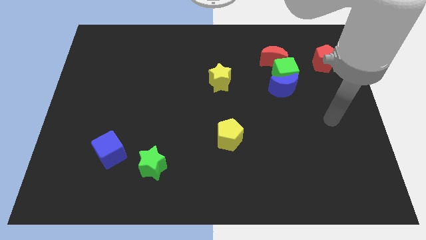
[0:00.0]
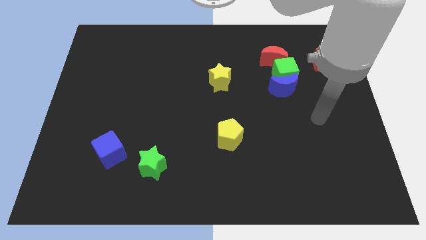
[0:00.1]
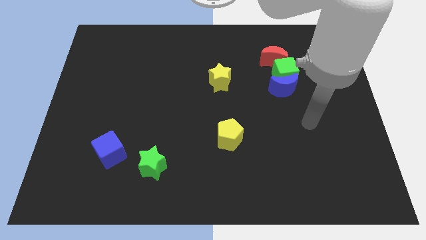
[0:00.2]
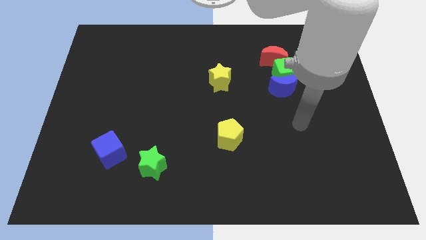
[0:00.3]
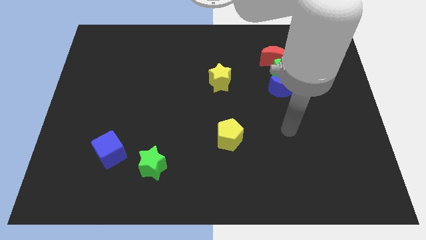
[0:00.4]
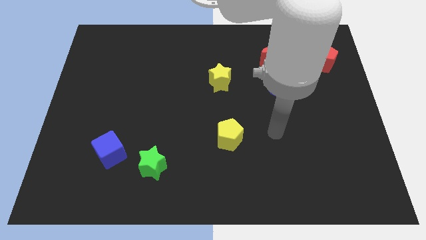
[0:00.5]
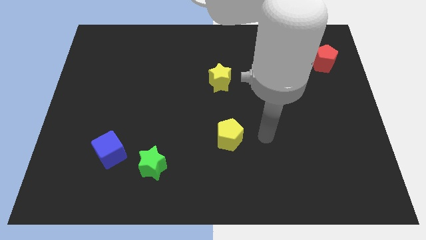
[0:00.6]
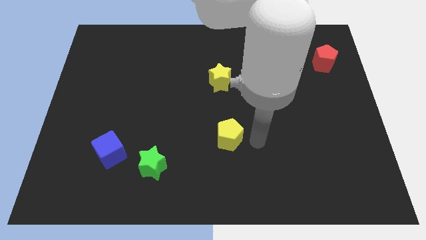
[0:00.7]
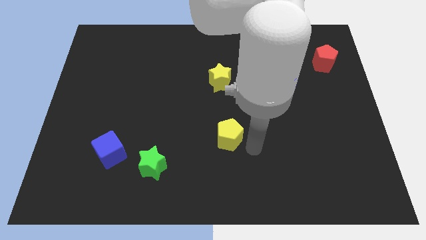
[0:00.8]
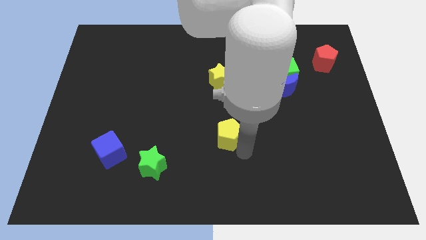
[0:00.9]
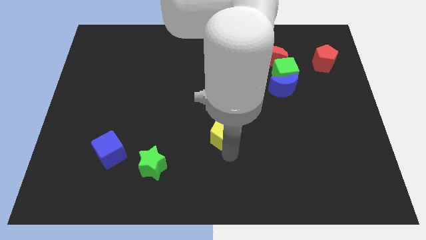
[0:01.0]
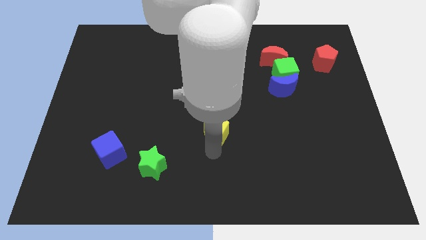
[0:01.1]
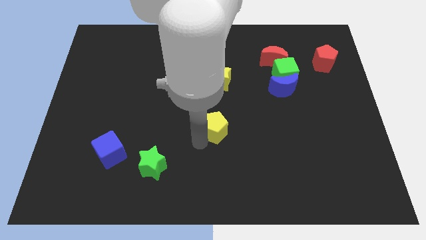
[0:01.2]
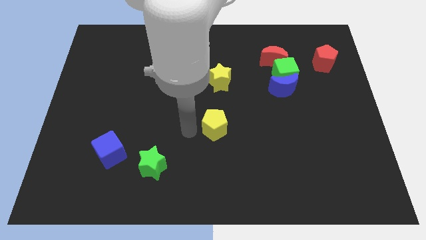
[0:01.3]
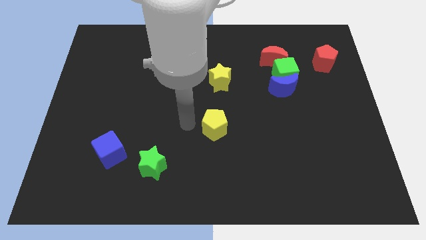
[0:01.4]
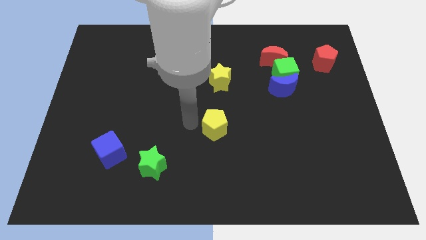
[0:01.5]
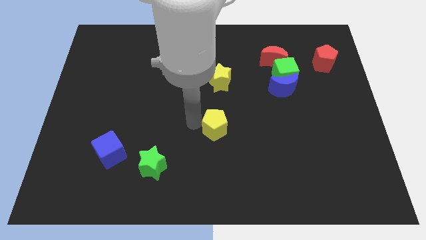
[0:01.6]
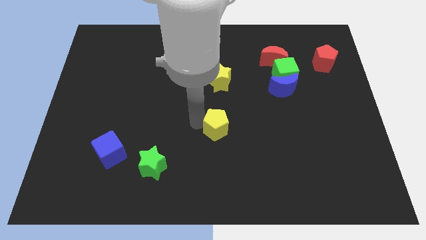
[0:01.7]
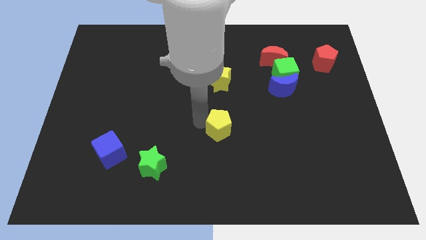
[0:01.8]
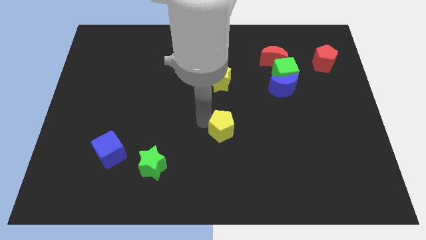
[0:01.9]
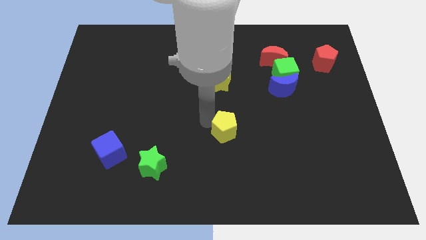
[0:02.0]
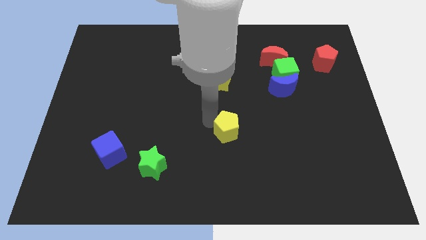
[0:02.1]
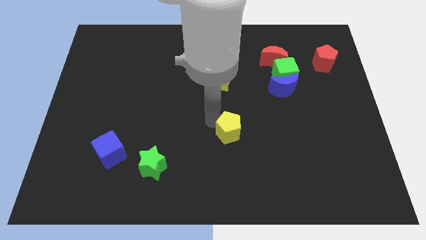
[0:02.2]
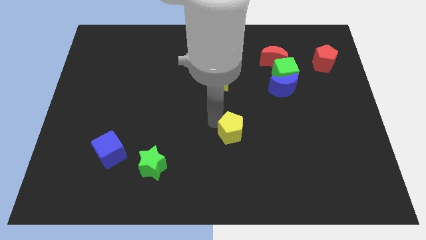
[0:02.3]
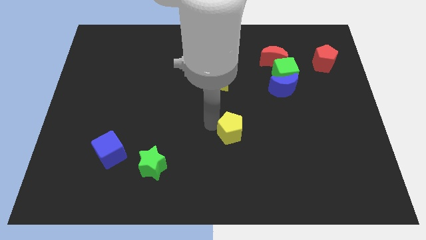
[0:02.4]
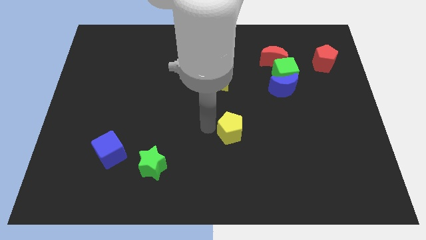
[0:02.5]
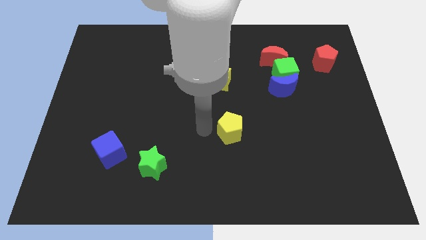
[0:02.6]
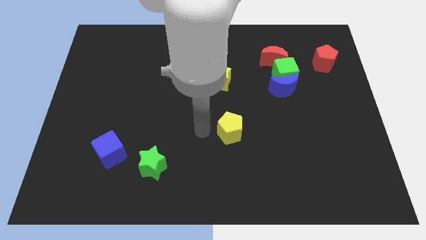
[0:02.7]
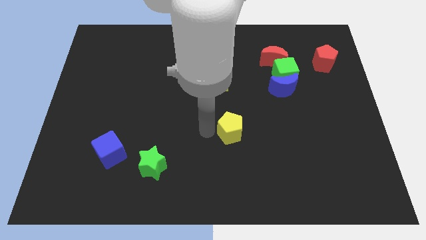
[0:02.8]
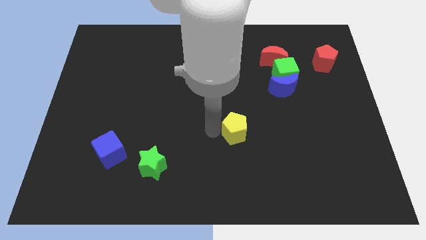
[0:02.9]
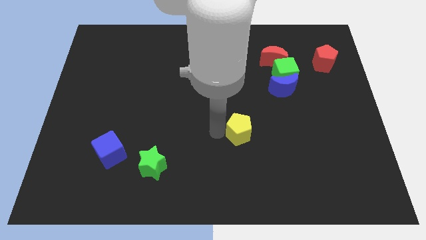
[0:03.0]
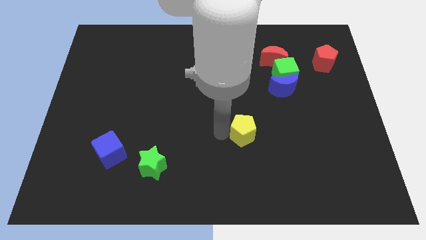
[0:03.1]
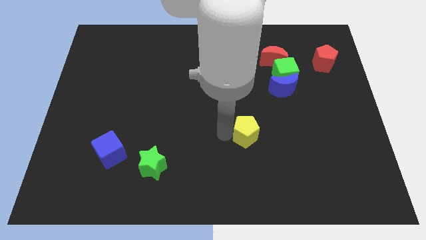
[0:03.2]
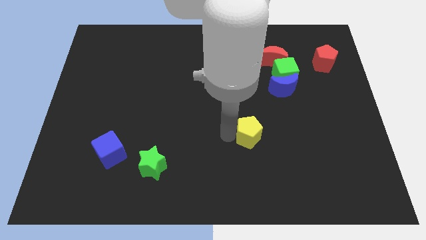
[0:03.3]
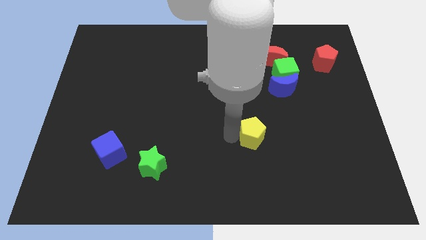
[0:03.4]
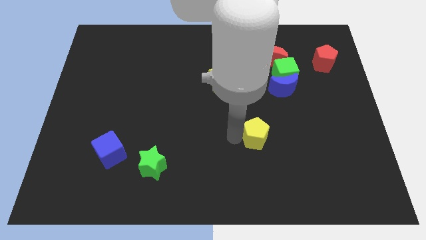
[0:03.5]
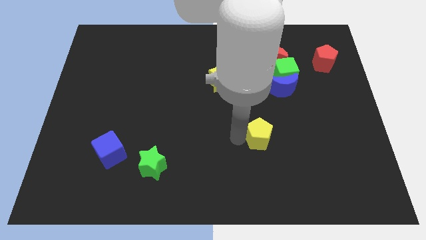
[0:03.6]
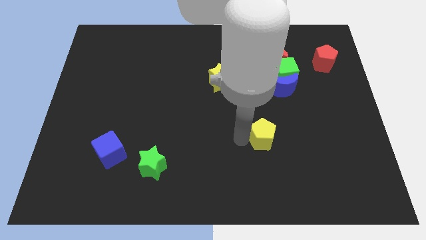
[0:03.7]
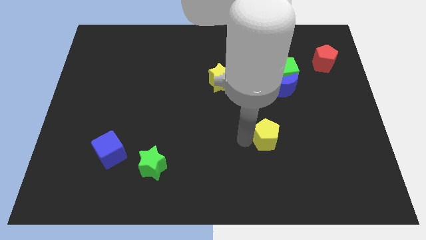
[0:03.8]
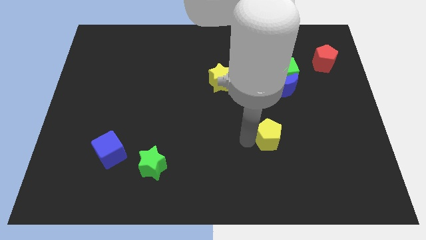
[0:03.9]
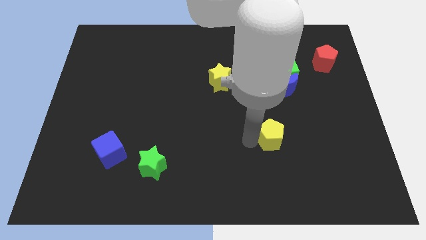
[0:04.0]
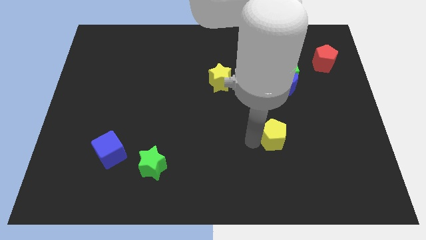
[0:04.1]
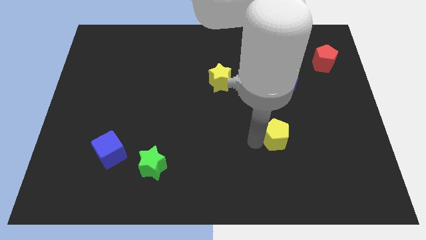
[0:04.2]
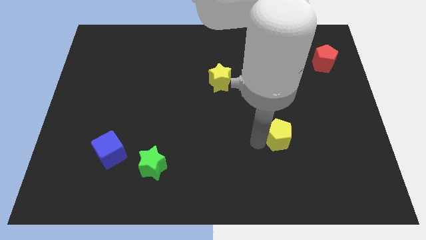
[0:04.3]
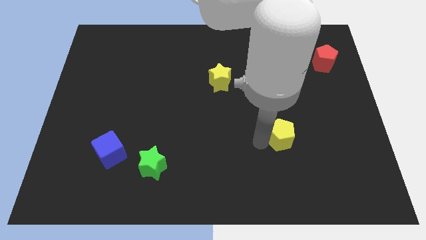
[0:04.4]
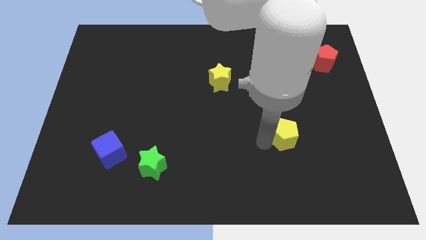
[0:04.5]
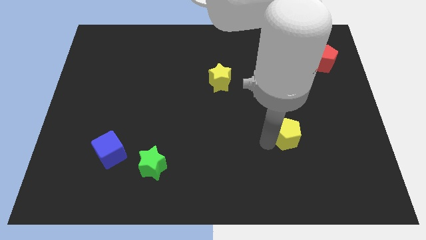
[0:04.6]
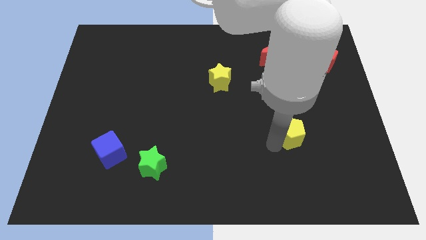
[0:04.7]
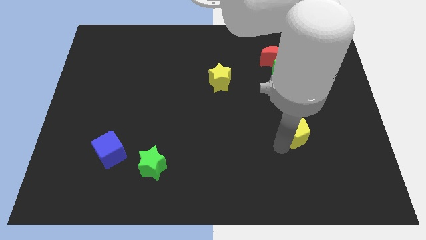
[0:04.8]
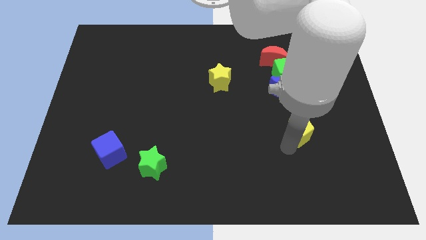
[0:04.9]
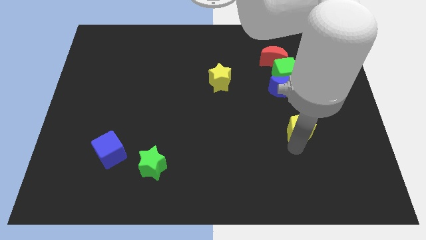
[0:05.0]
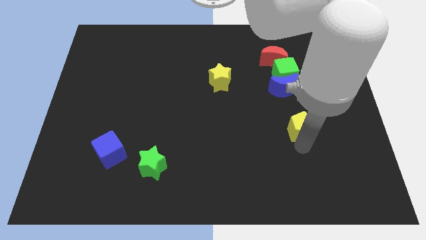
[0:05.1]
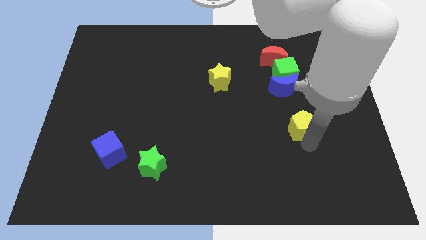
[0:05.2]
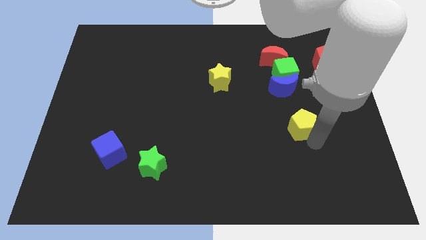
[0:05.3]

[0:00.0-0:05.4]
put the yellow pentagon to the bottom of the green cube

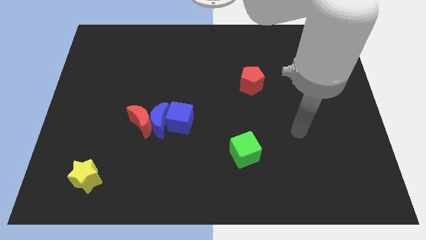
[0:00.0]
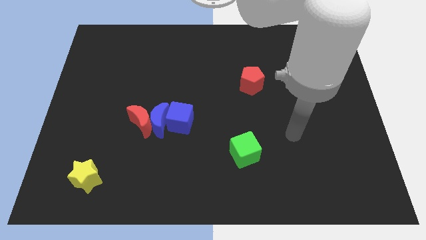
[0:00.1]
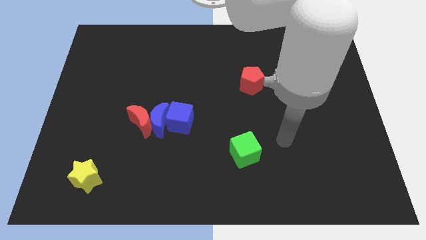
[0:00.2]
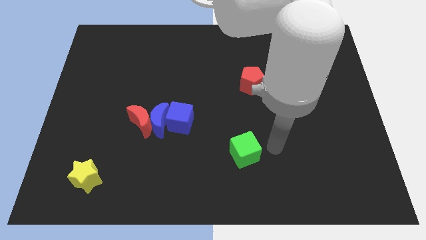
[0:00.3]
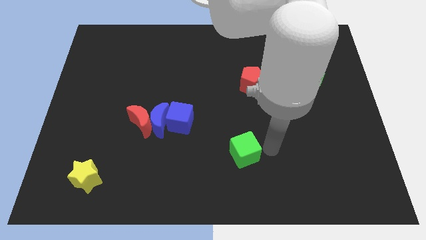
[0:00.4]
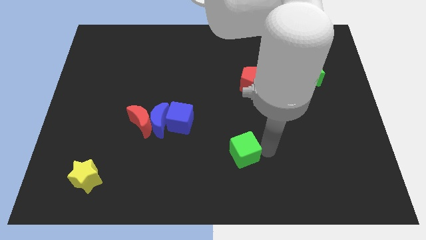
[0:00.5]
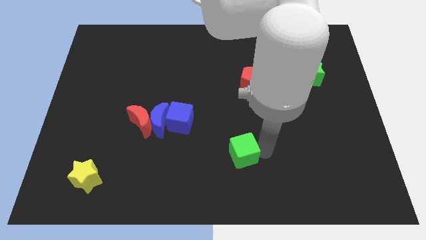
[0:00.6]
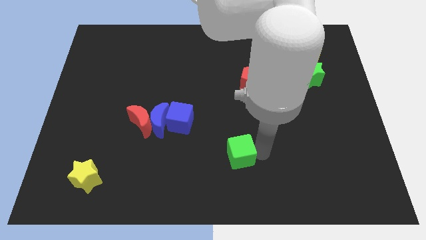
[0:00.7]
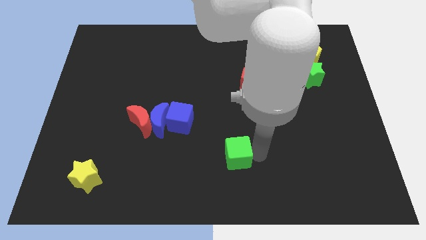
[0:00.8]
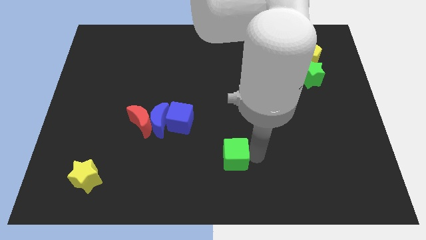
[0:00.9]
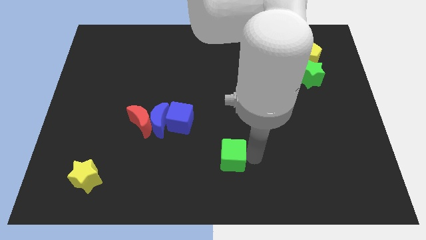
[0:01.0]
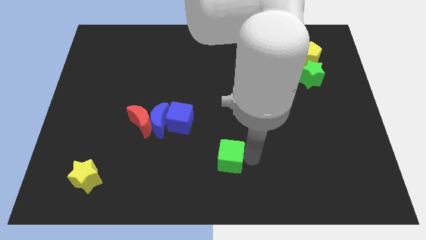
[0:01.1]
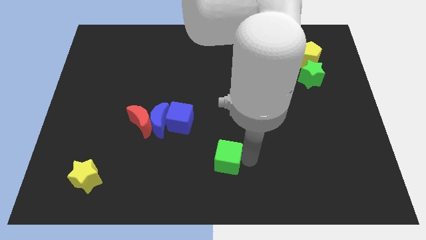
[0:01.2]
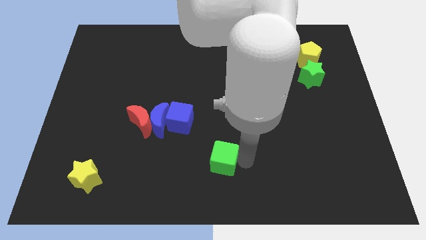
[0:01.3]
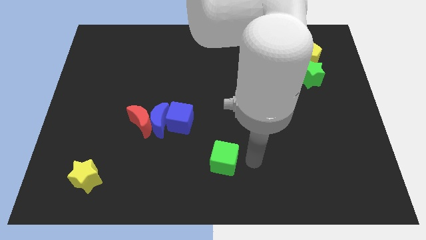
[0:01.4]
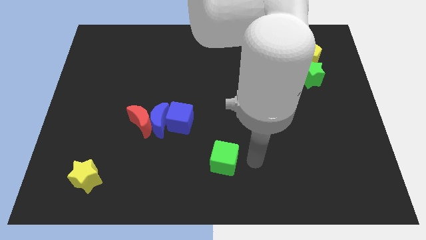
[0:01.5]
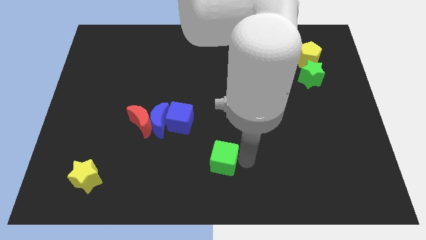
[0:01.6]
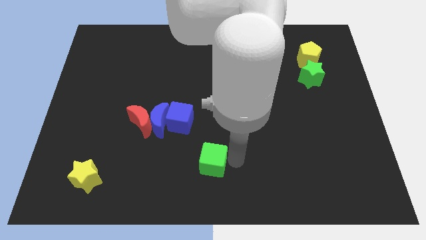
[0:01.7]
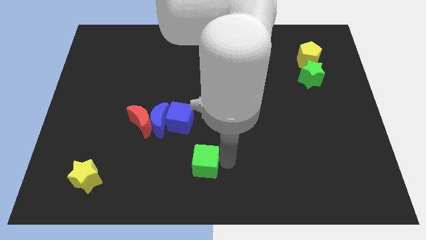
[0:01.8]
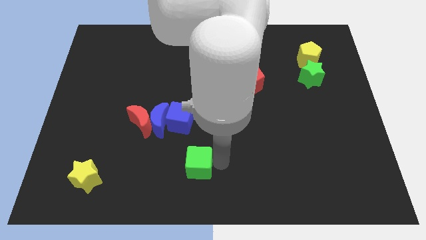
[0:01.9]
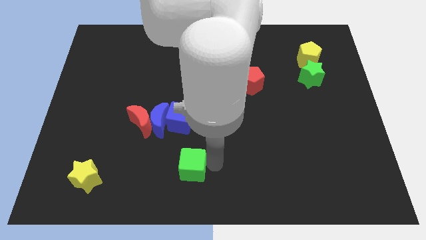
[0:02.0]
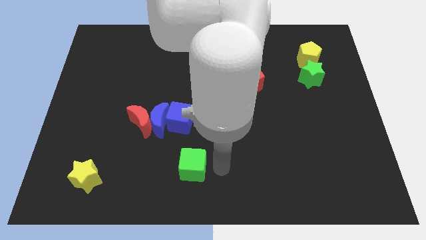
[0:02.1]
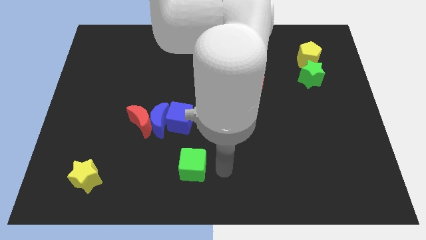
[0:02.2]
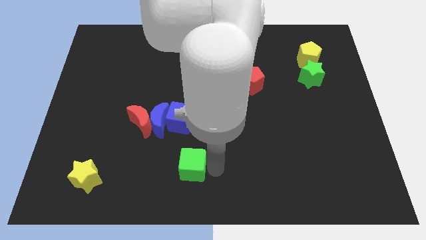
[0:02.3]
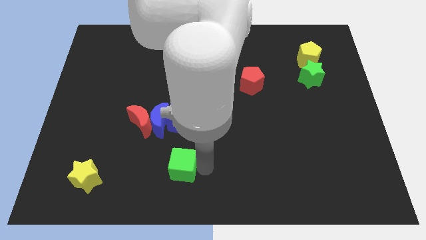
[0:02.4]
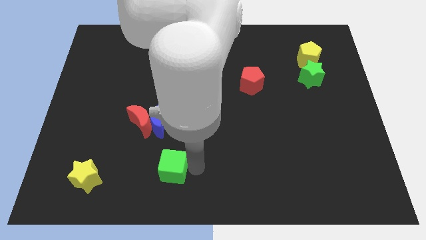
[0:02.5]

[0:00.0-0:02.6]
push the green cube below the blue moon
